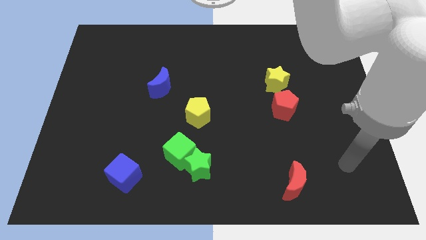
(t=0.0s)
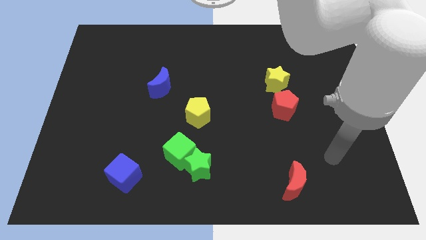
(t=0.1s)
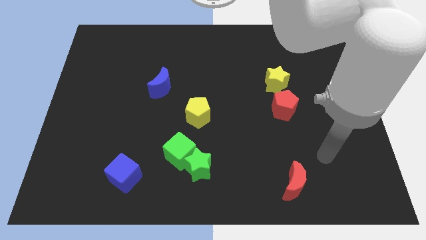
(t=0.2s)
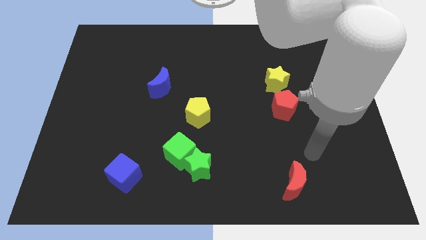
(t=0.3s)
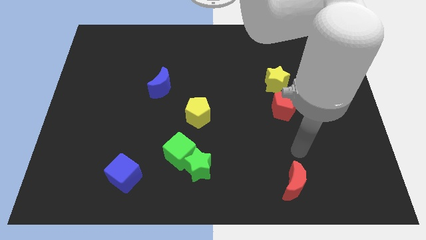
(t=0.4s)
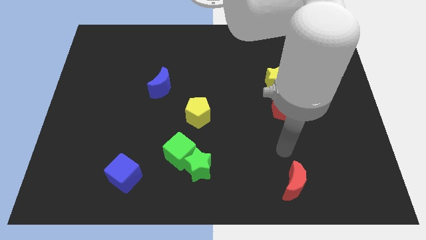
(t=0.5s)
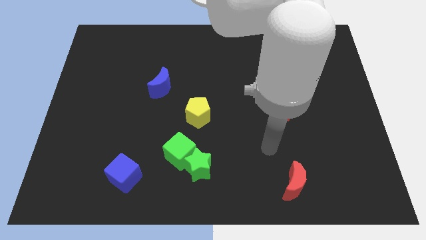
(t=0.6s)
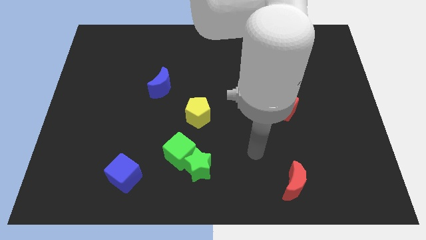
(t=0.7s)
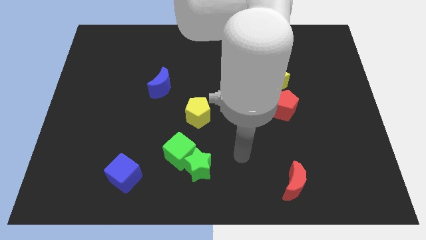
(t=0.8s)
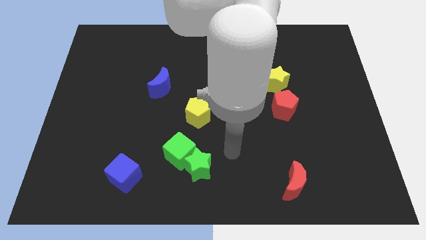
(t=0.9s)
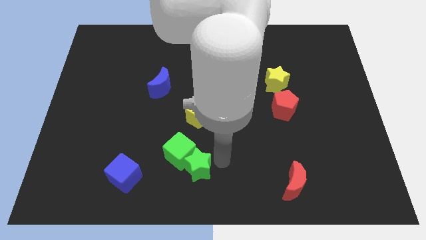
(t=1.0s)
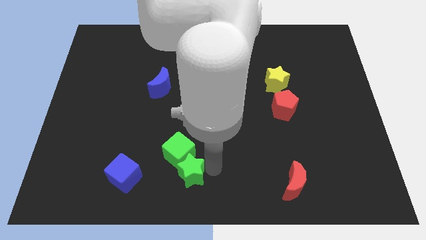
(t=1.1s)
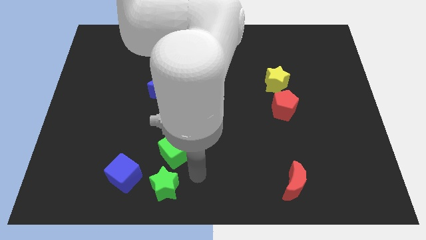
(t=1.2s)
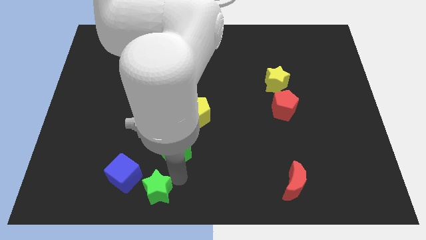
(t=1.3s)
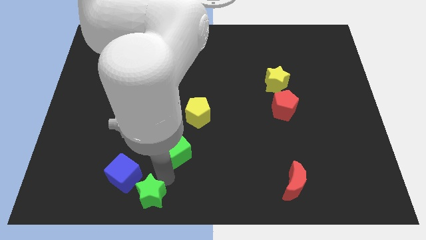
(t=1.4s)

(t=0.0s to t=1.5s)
separate the green cube from the green star

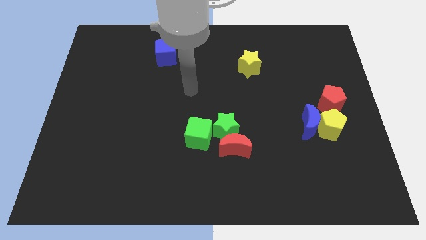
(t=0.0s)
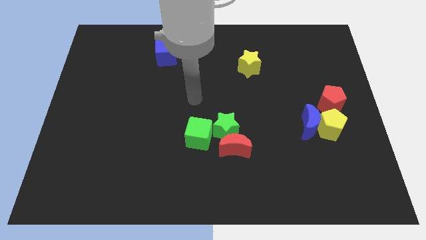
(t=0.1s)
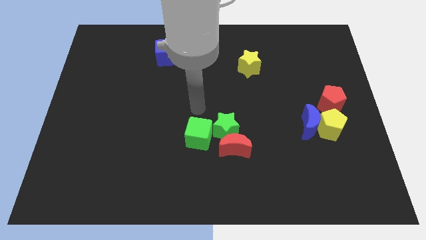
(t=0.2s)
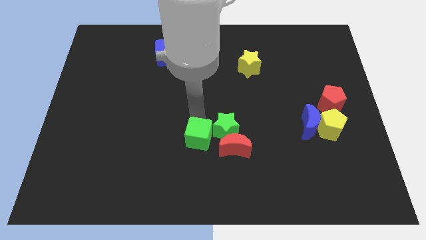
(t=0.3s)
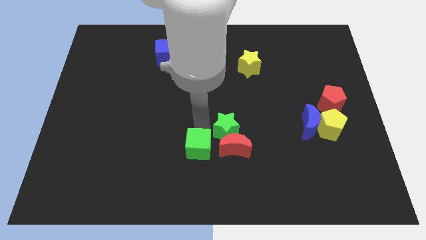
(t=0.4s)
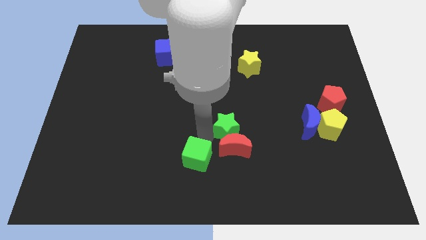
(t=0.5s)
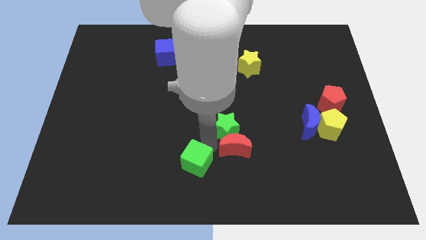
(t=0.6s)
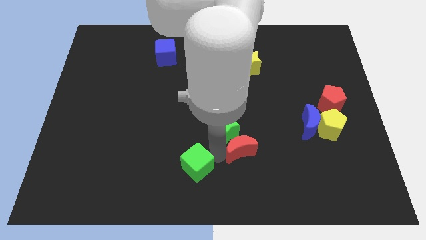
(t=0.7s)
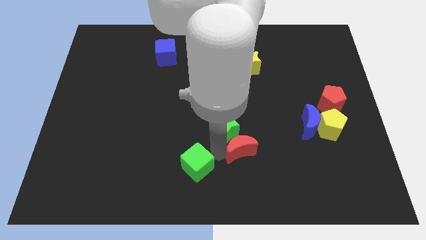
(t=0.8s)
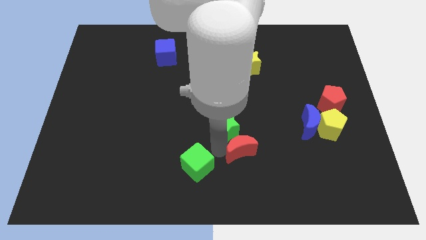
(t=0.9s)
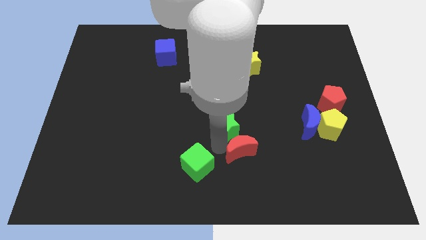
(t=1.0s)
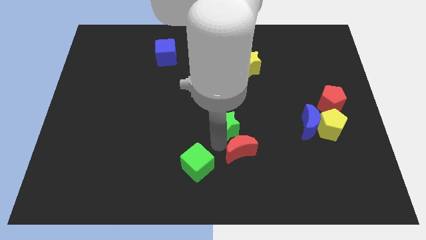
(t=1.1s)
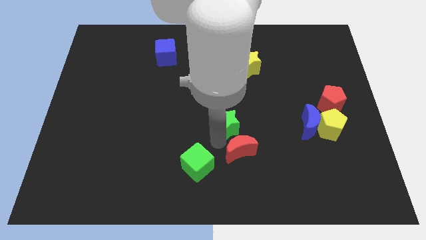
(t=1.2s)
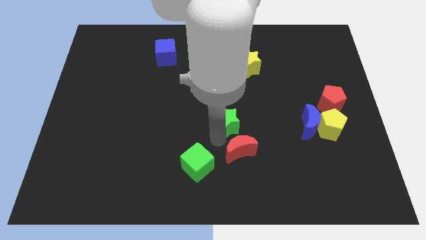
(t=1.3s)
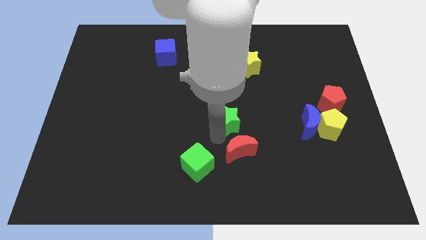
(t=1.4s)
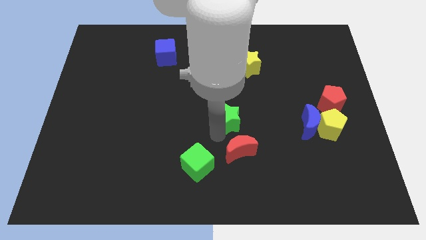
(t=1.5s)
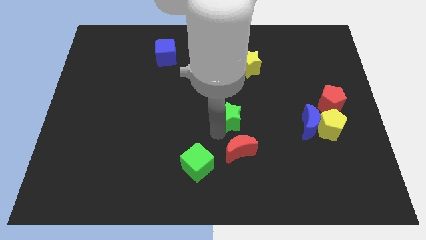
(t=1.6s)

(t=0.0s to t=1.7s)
move the green star away from the red moon and green cube

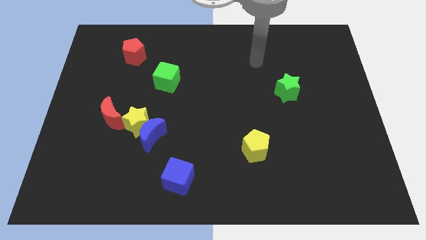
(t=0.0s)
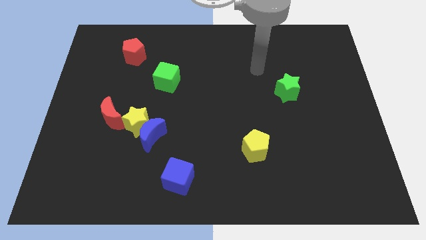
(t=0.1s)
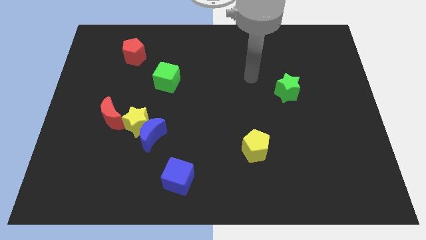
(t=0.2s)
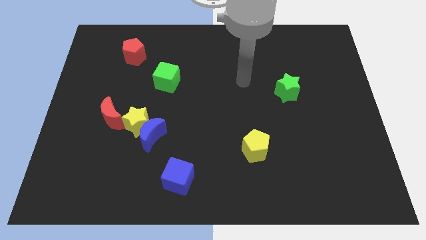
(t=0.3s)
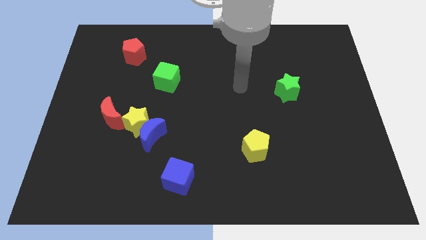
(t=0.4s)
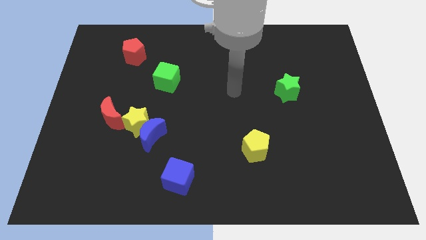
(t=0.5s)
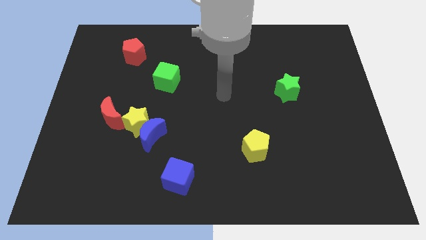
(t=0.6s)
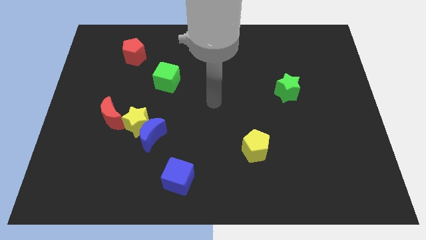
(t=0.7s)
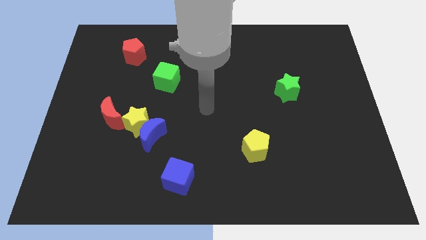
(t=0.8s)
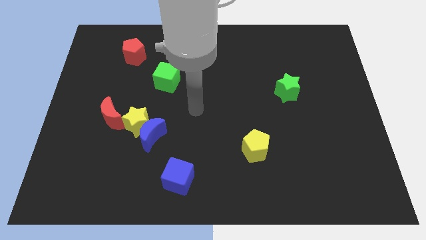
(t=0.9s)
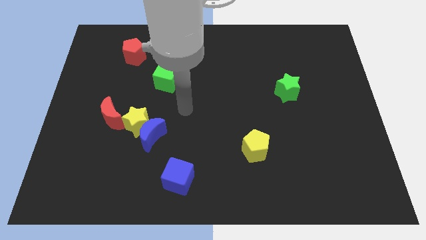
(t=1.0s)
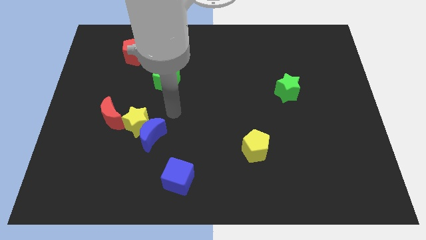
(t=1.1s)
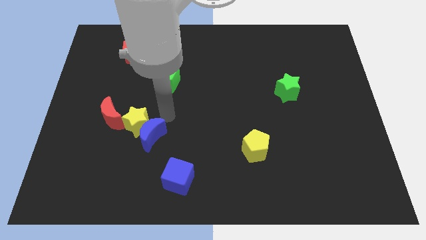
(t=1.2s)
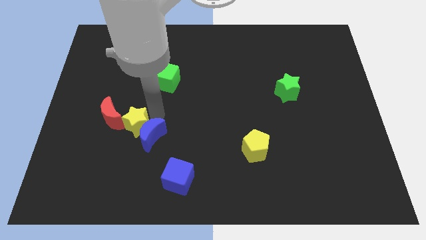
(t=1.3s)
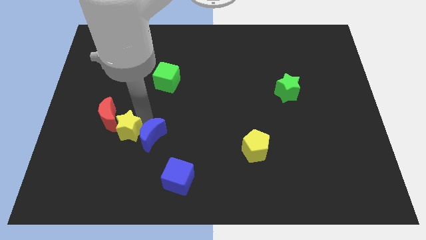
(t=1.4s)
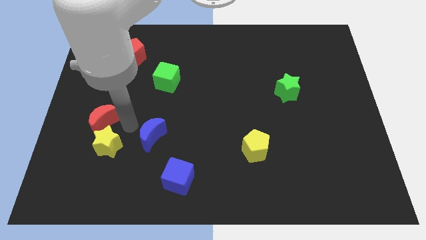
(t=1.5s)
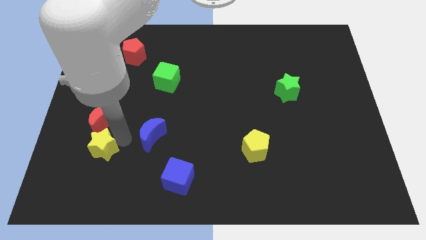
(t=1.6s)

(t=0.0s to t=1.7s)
move the blue moon away from the yellow star

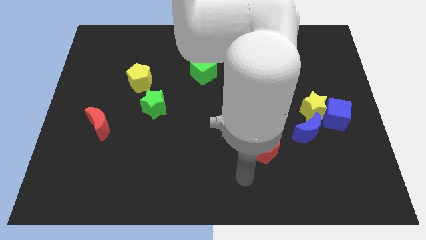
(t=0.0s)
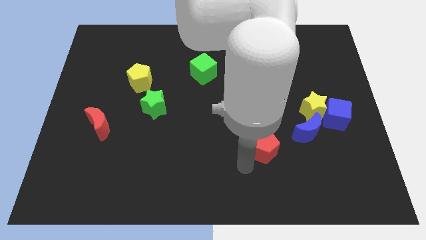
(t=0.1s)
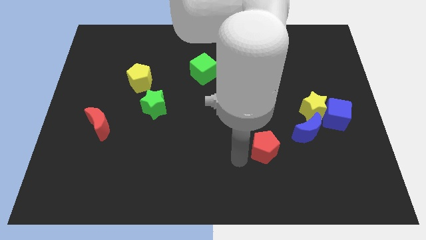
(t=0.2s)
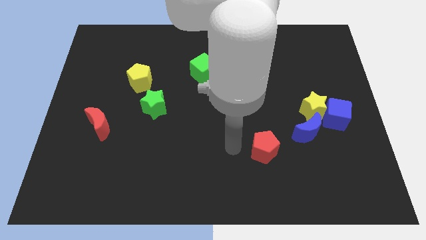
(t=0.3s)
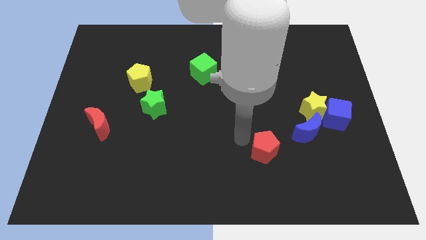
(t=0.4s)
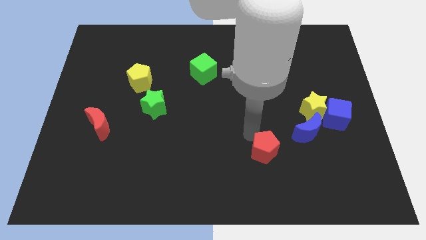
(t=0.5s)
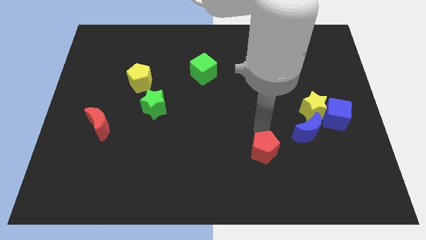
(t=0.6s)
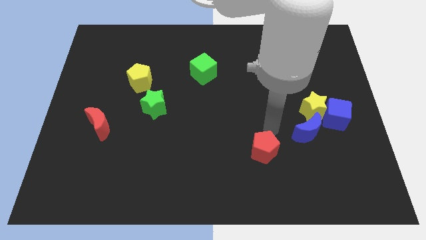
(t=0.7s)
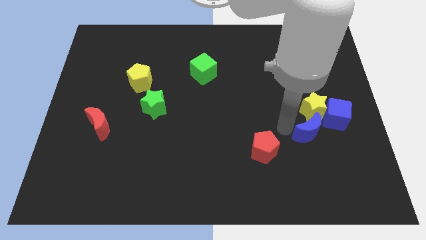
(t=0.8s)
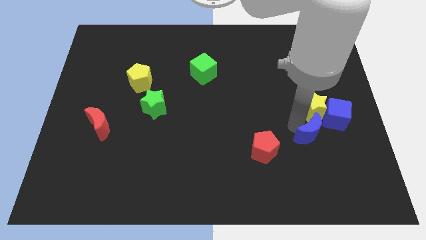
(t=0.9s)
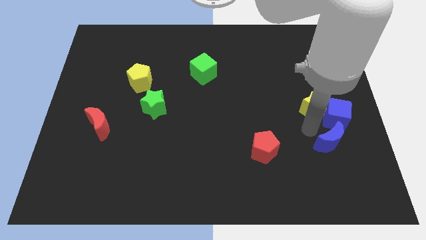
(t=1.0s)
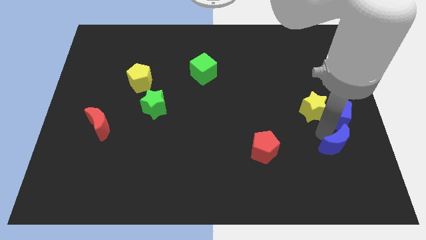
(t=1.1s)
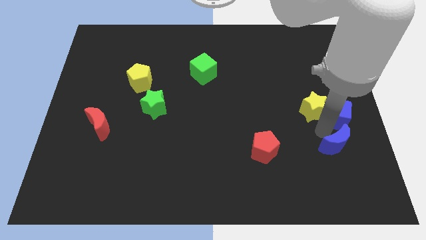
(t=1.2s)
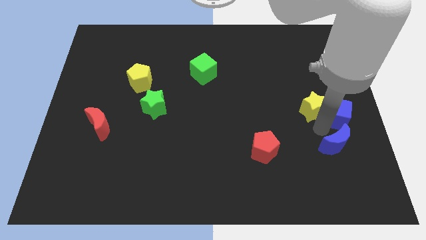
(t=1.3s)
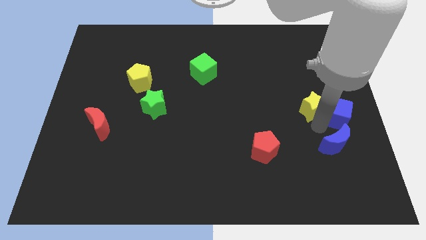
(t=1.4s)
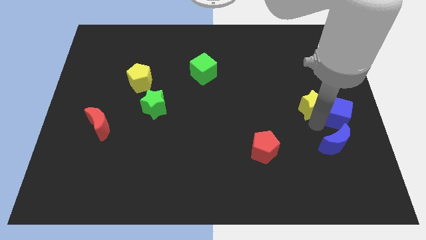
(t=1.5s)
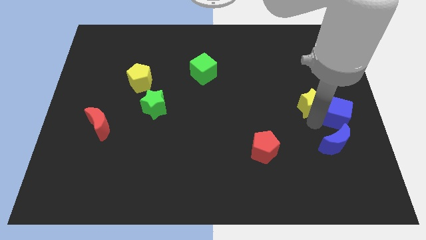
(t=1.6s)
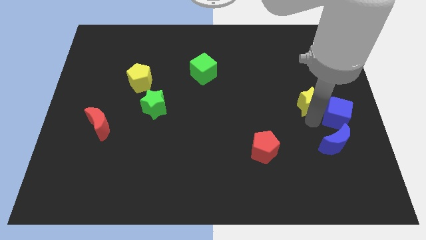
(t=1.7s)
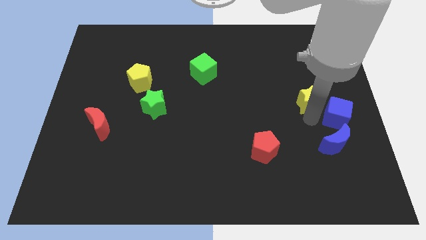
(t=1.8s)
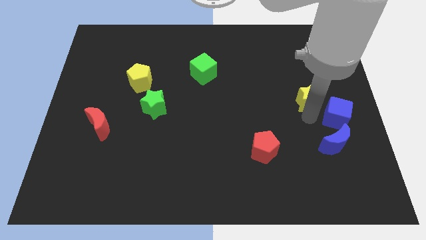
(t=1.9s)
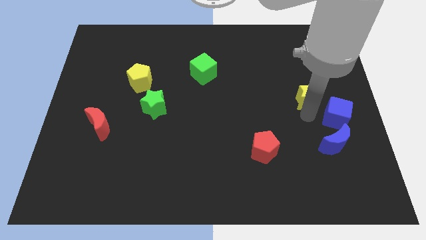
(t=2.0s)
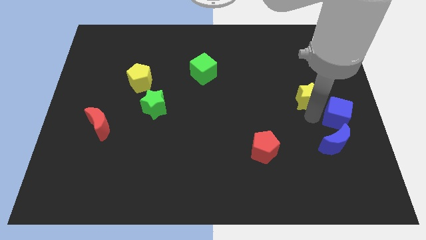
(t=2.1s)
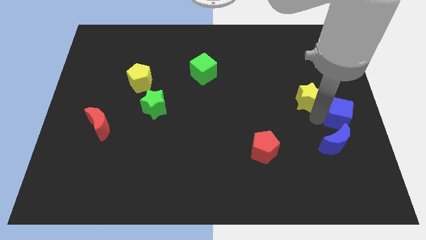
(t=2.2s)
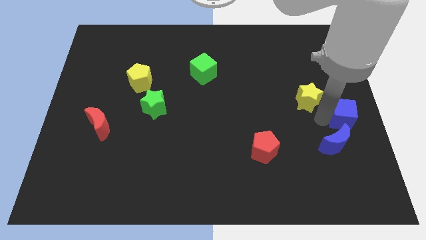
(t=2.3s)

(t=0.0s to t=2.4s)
separate the yellow star from the blue cube and blue moon

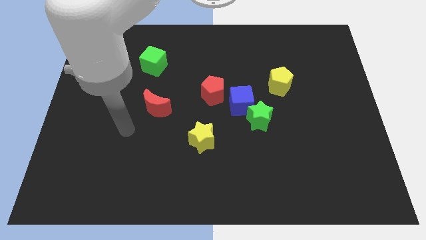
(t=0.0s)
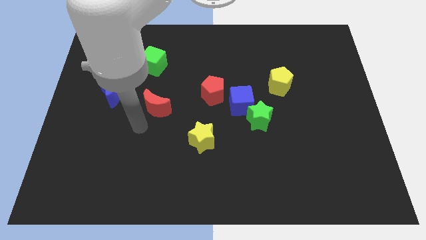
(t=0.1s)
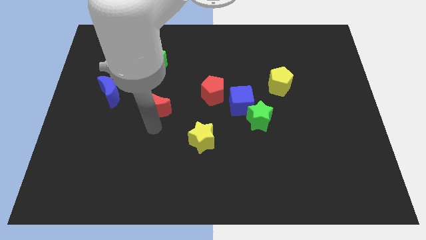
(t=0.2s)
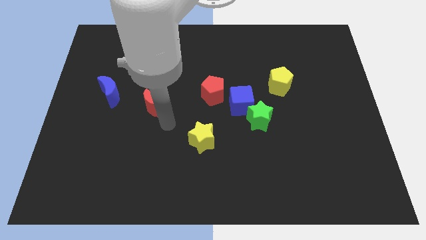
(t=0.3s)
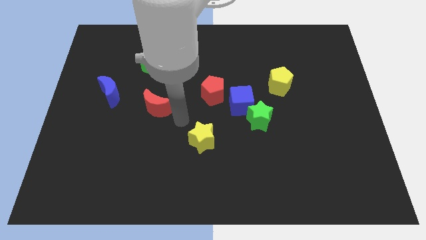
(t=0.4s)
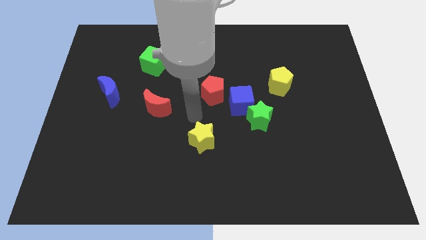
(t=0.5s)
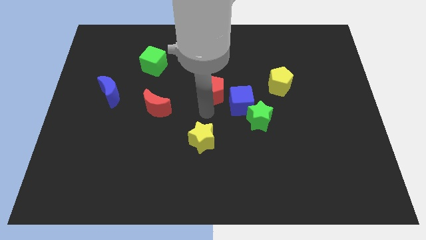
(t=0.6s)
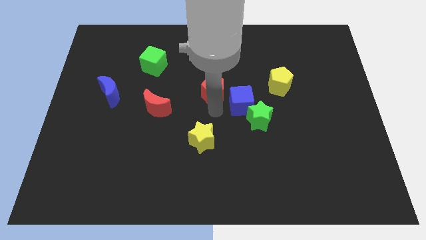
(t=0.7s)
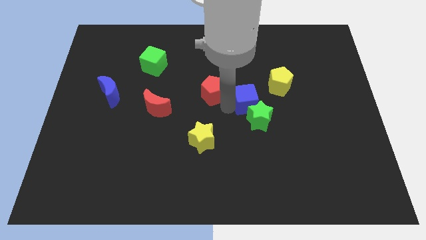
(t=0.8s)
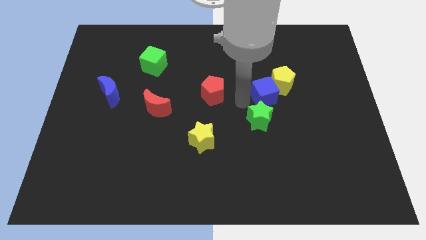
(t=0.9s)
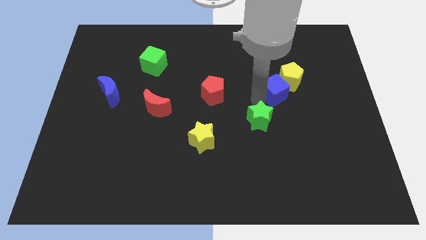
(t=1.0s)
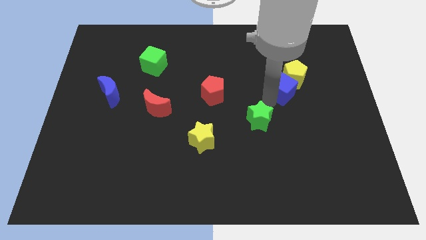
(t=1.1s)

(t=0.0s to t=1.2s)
separate the green star from the blue cube

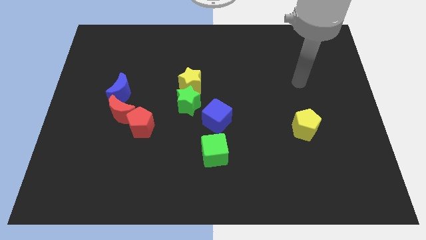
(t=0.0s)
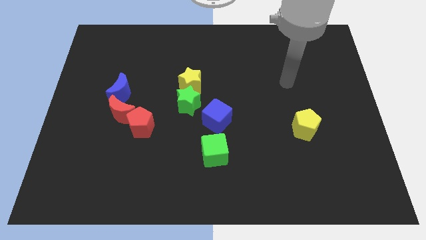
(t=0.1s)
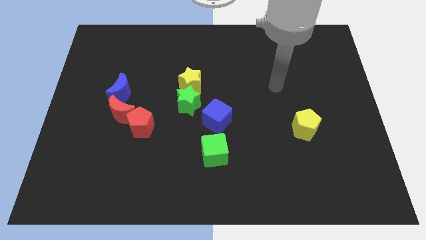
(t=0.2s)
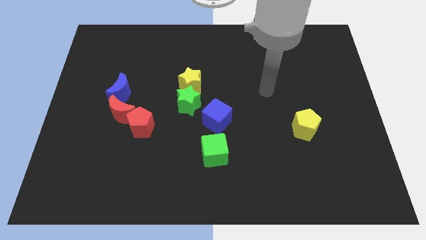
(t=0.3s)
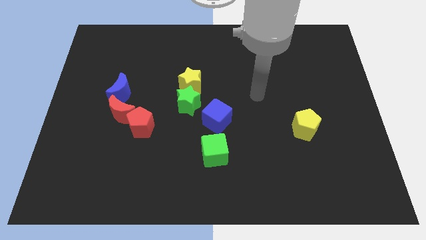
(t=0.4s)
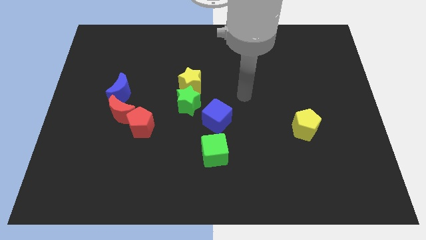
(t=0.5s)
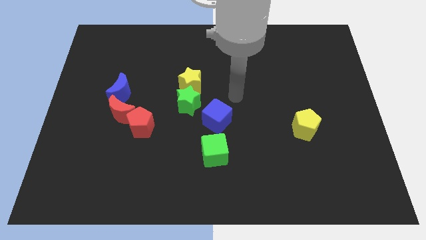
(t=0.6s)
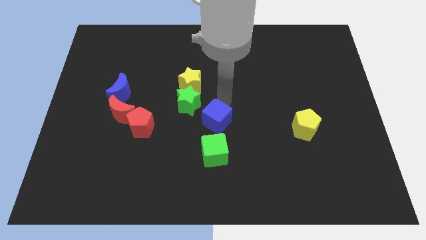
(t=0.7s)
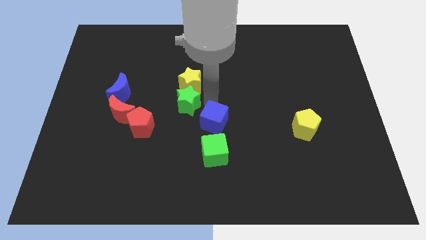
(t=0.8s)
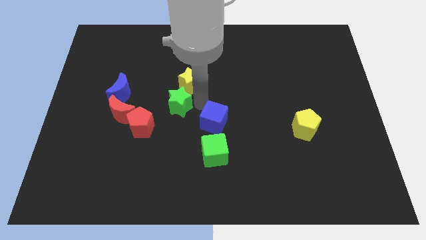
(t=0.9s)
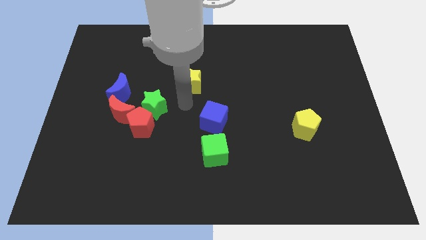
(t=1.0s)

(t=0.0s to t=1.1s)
separate the yellow star from the green star
